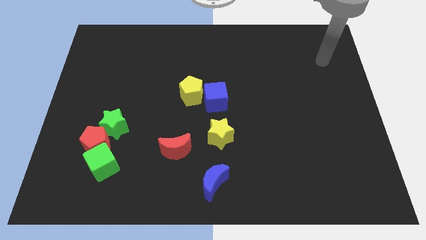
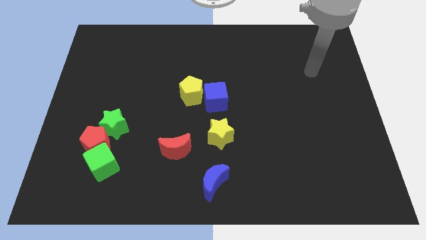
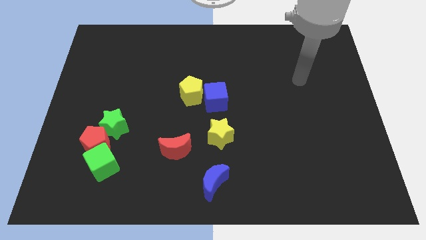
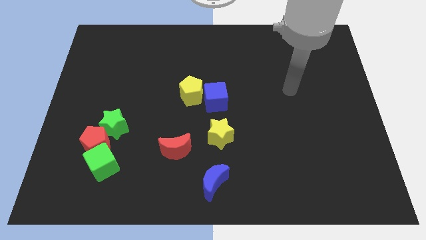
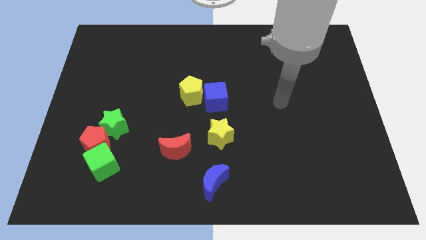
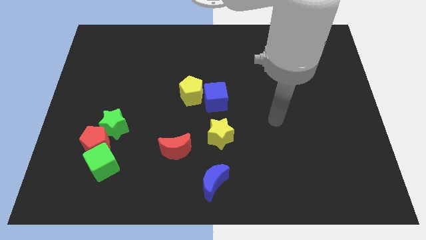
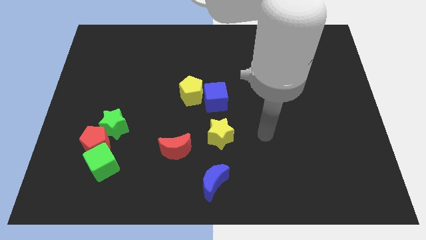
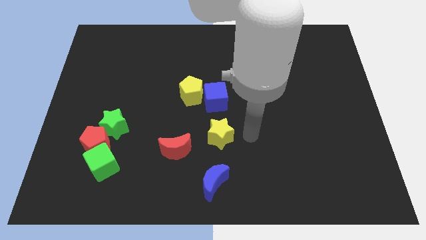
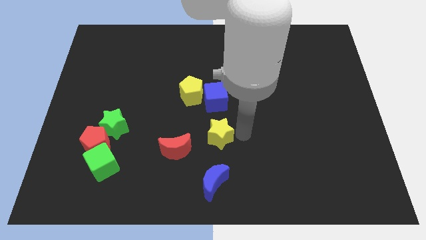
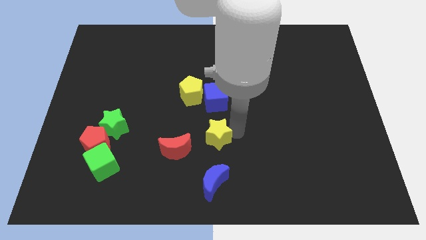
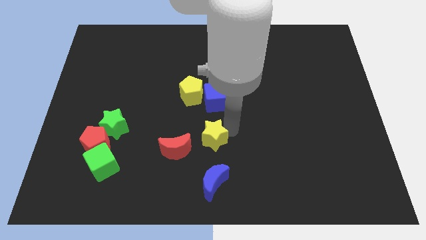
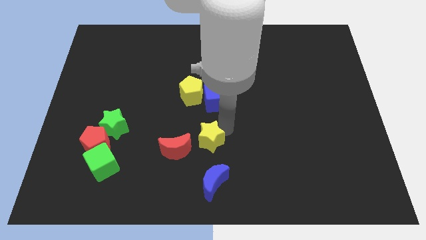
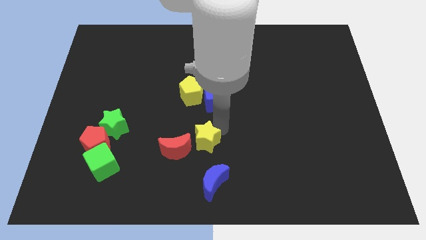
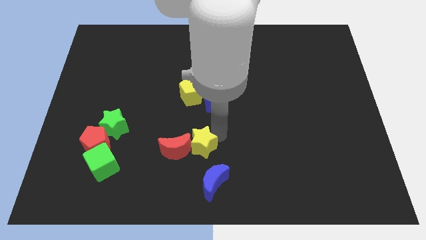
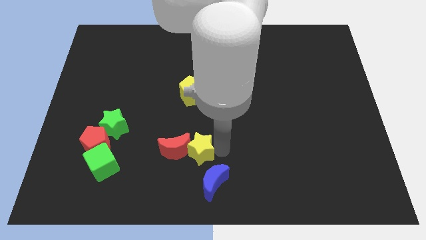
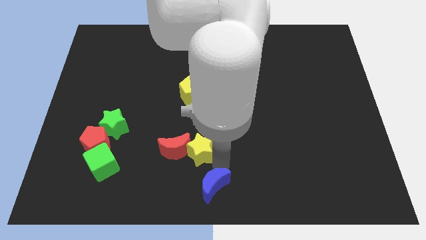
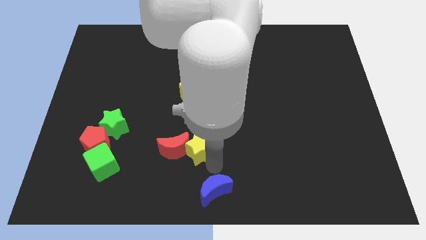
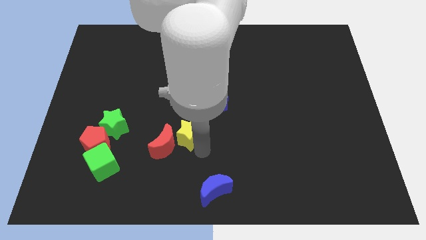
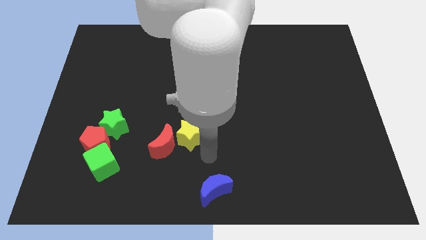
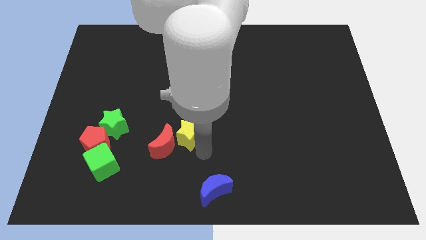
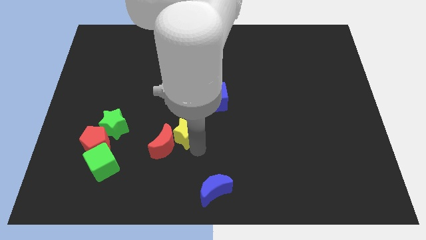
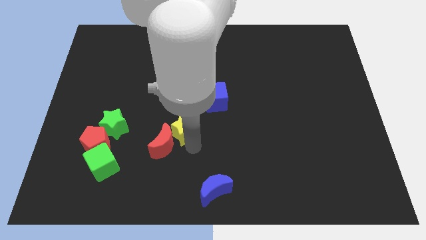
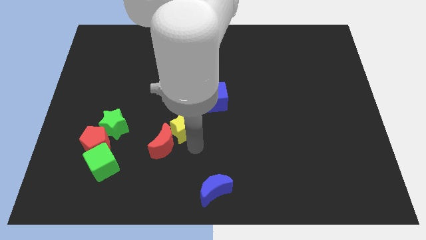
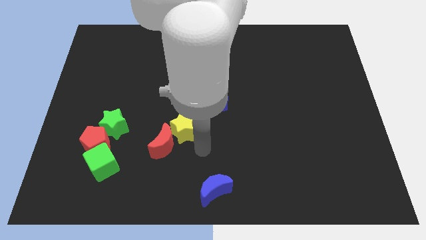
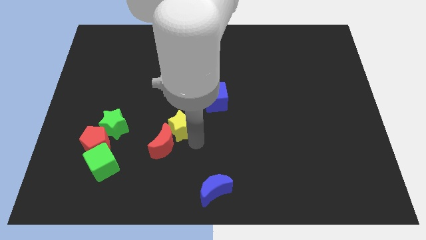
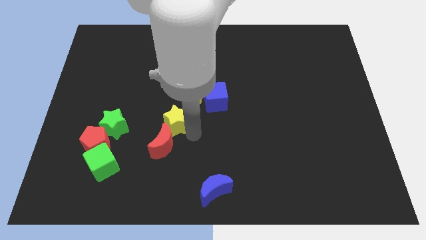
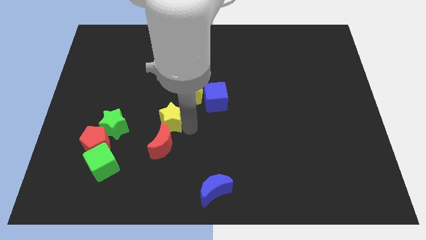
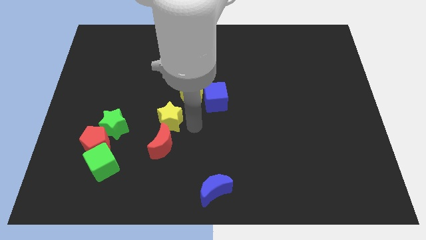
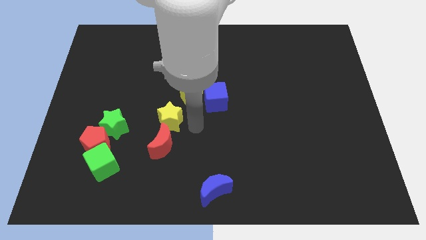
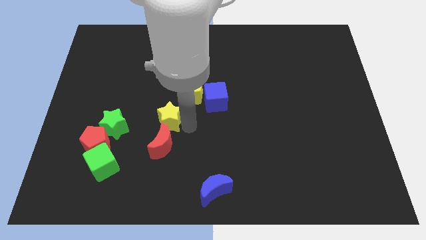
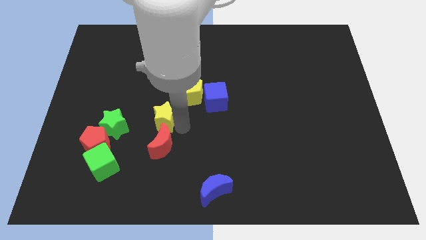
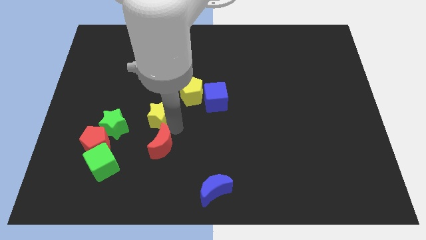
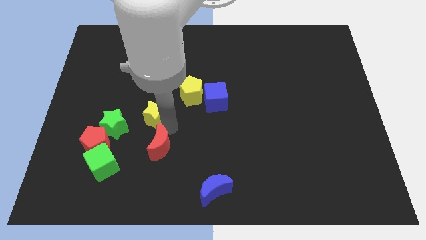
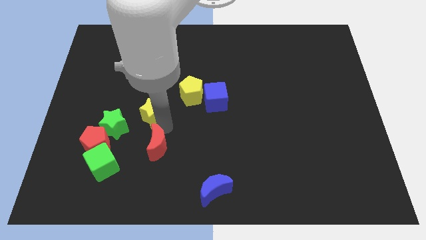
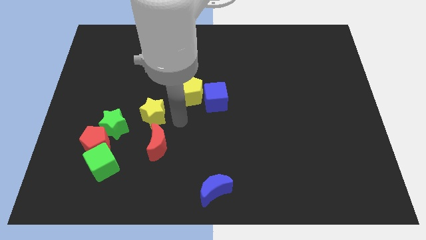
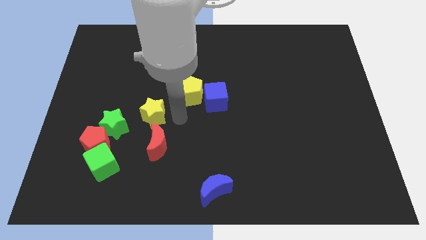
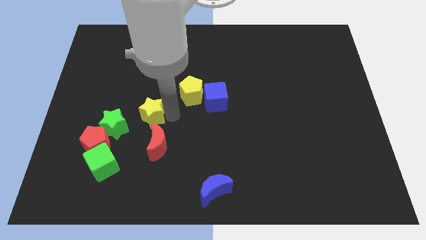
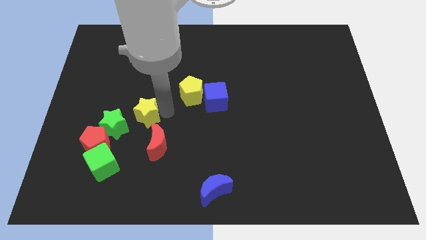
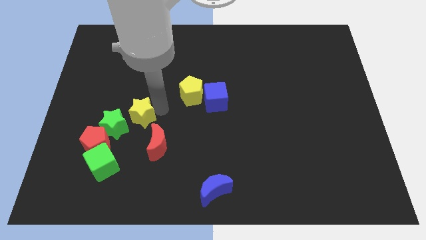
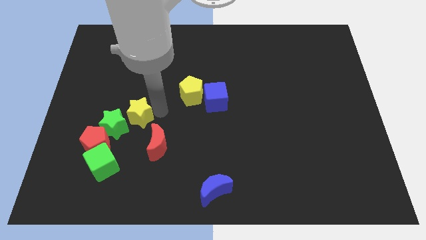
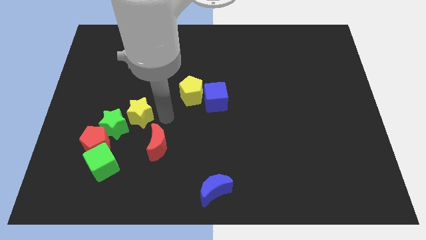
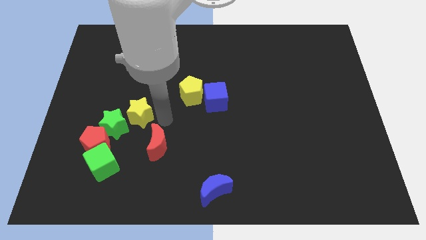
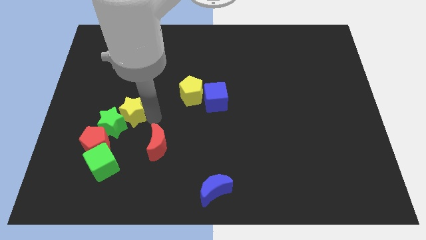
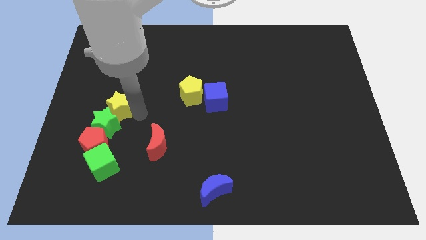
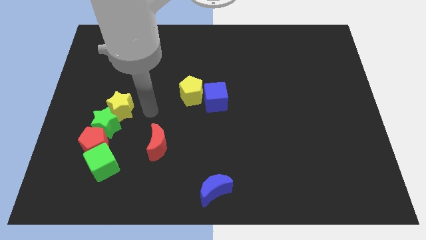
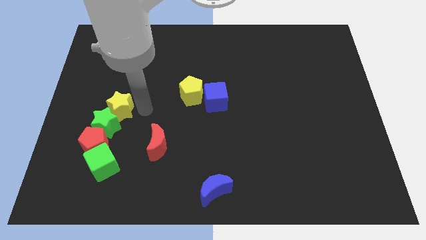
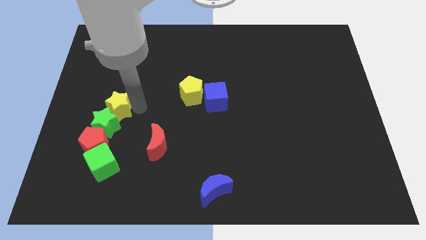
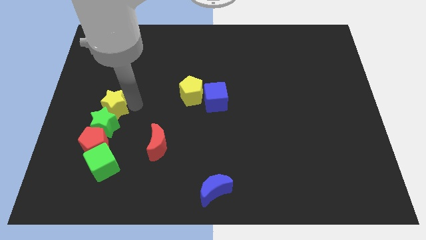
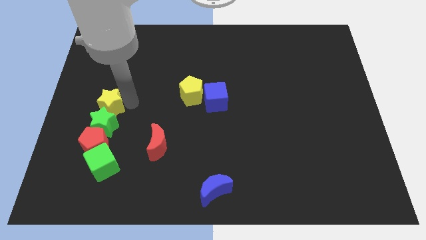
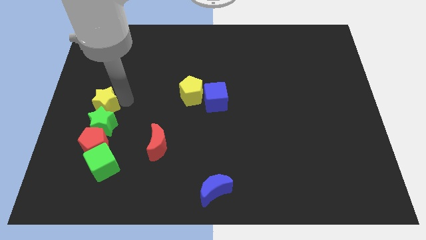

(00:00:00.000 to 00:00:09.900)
put the yellow star to the left side

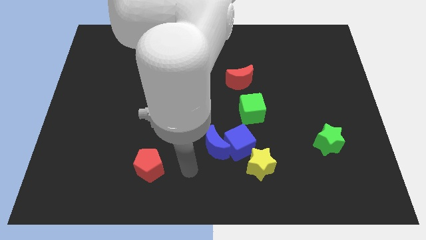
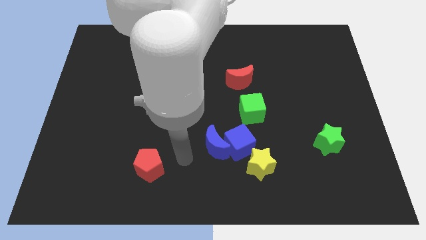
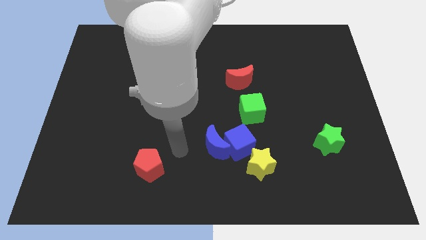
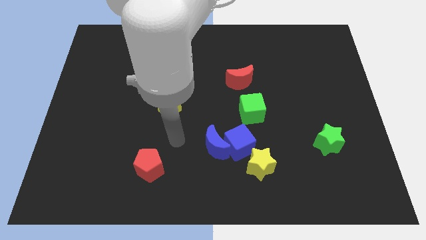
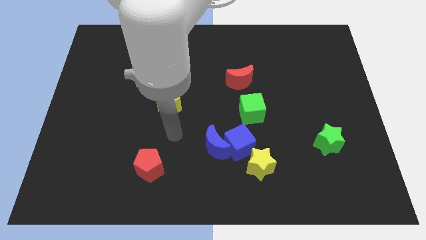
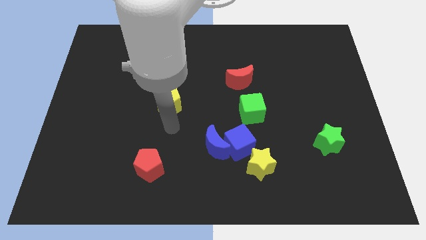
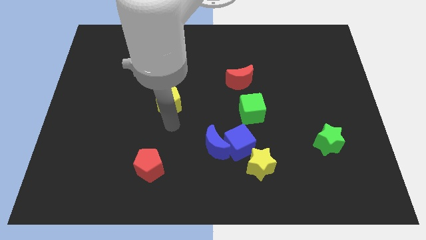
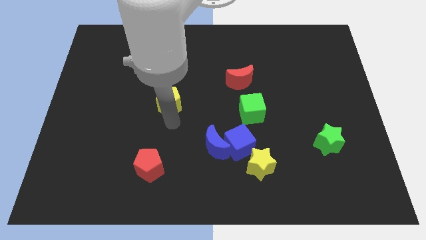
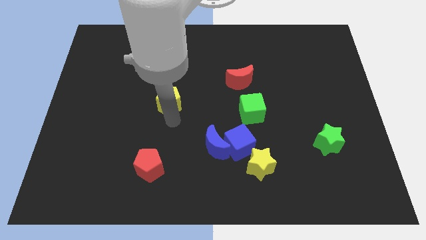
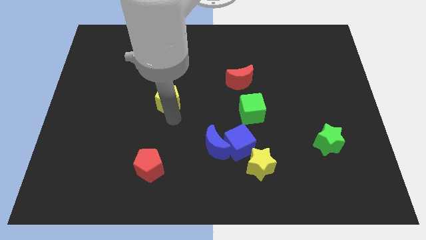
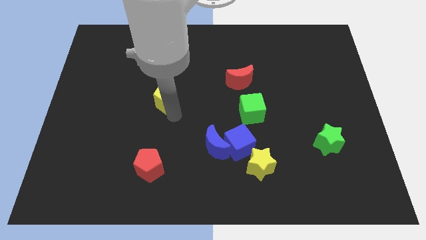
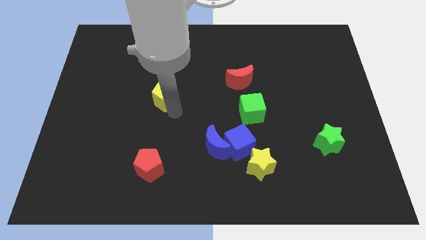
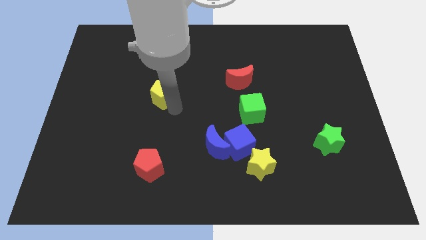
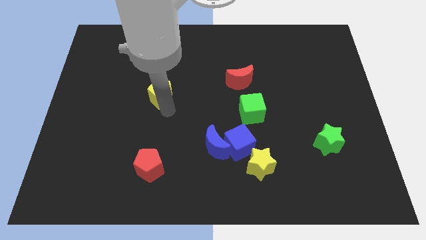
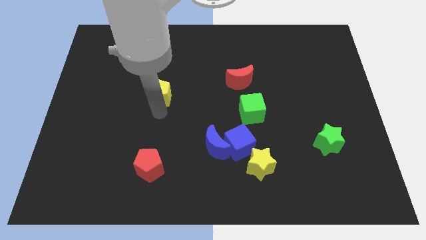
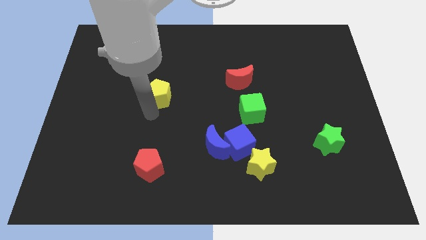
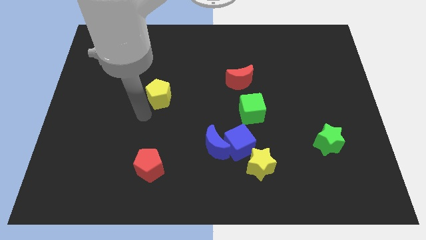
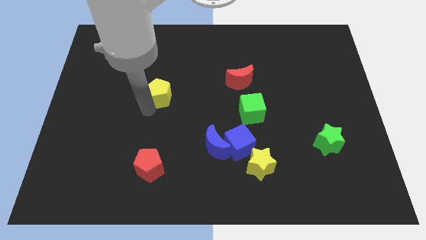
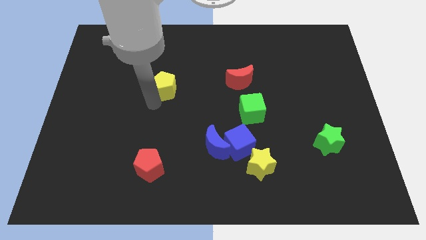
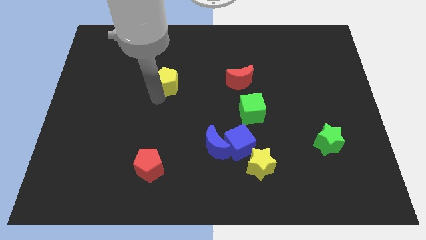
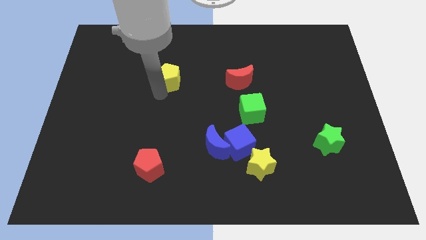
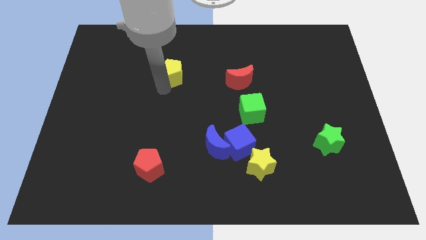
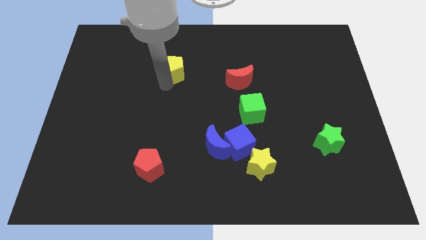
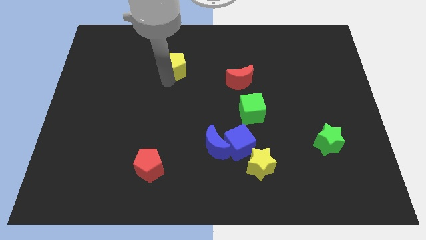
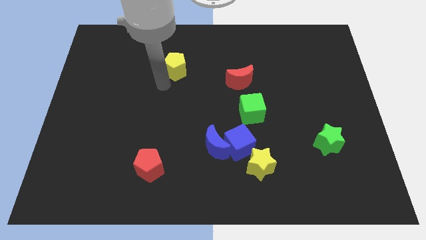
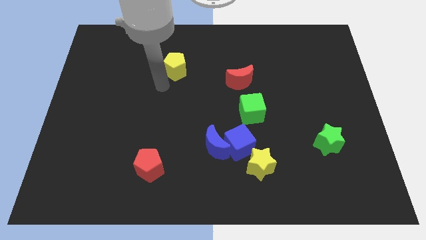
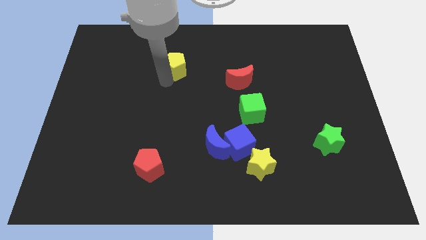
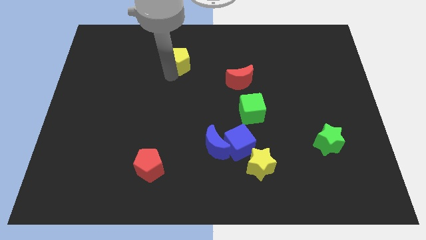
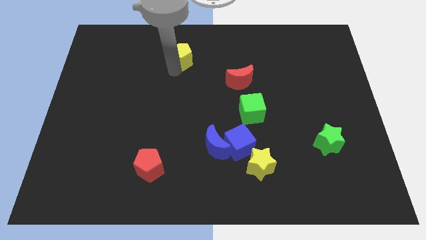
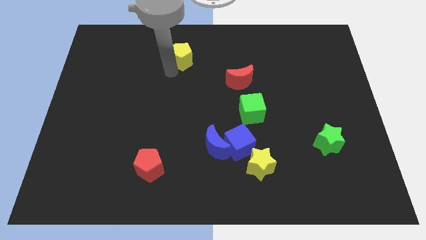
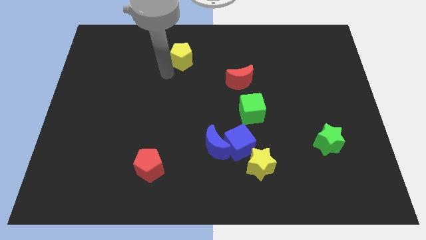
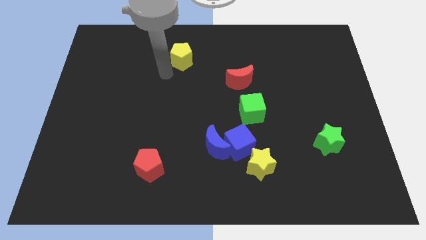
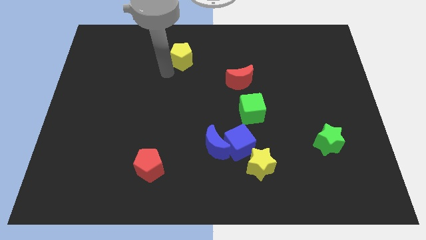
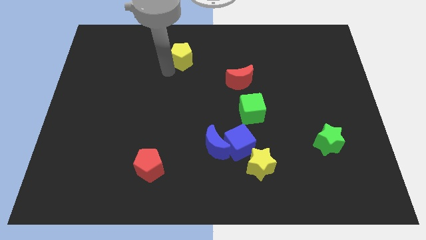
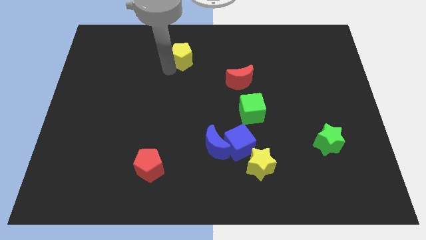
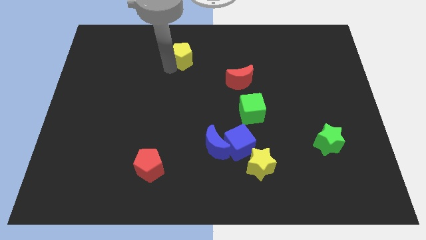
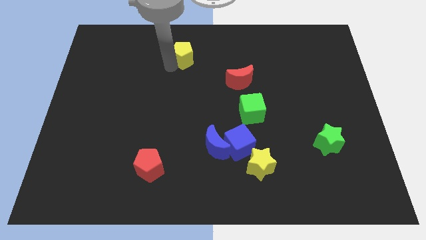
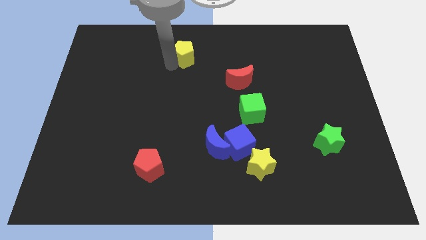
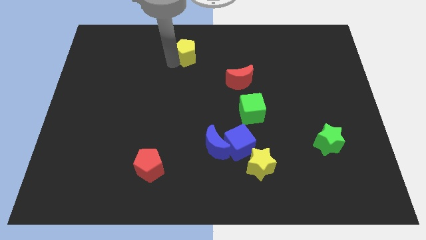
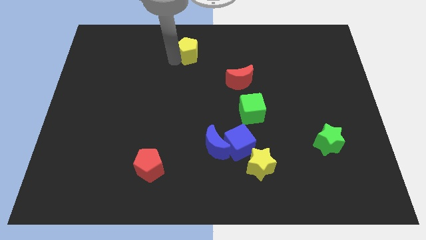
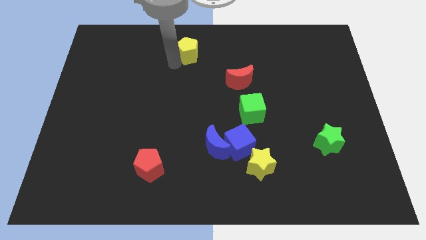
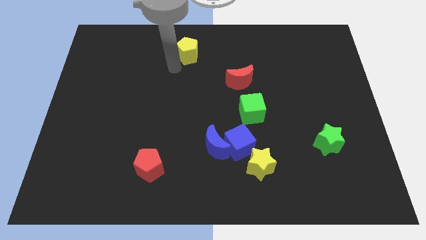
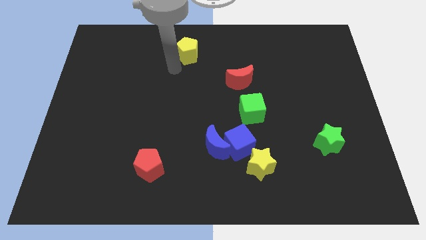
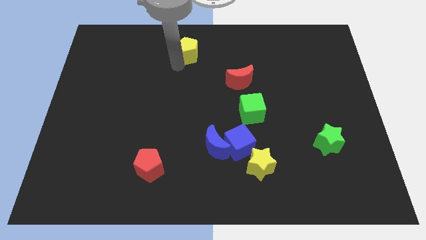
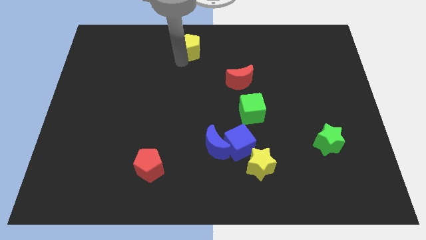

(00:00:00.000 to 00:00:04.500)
push the yellow pentagon to the top
